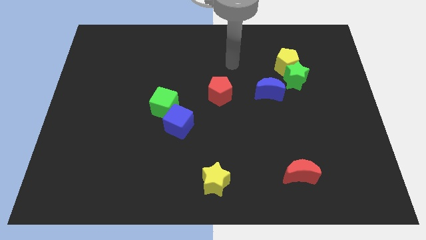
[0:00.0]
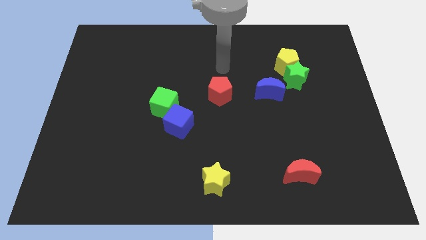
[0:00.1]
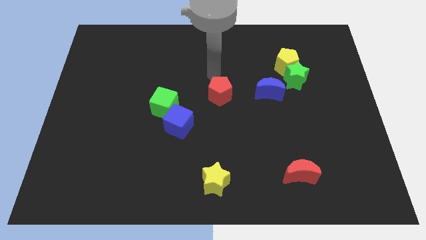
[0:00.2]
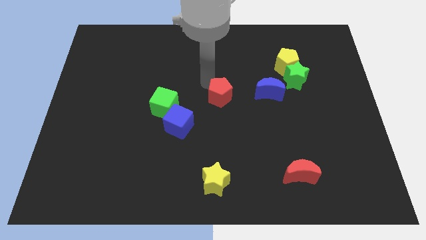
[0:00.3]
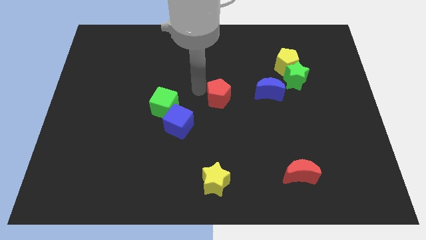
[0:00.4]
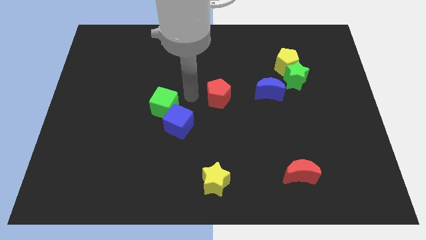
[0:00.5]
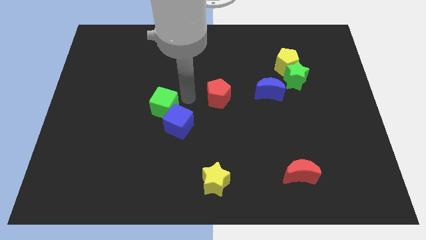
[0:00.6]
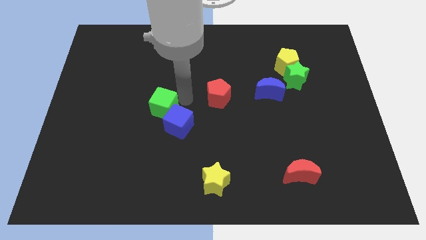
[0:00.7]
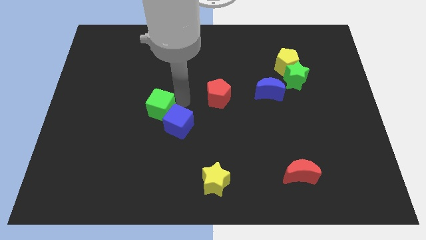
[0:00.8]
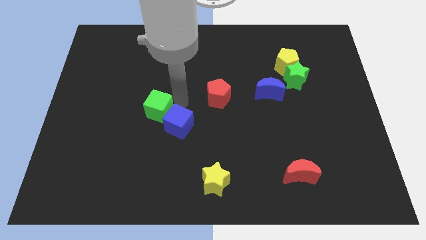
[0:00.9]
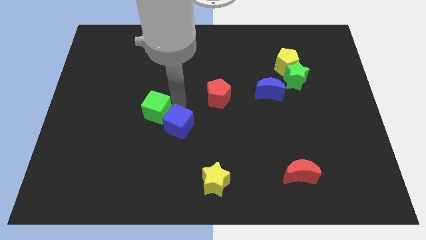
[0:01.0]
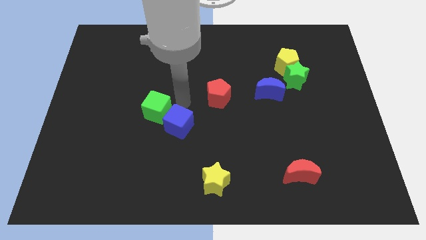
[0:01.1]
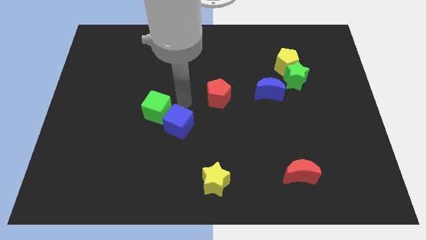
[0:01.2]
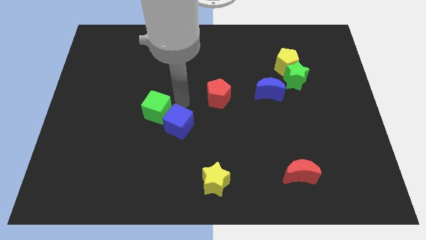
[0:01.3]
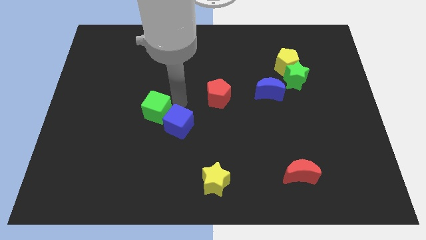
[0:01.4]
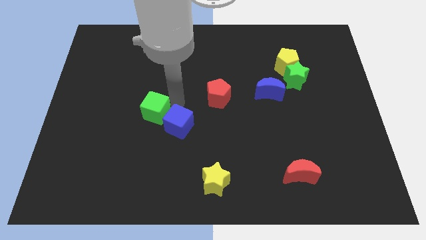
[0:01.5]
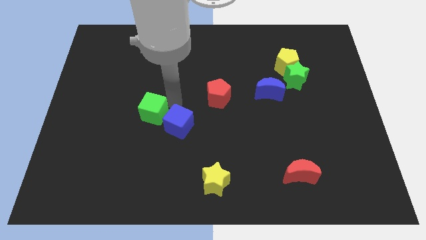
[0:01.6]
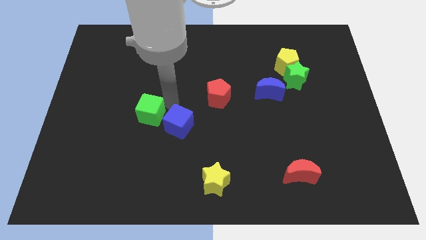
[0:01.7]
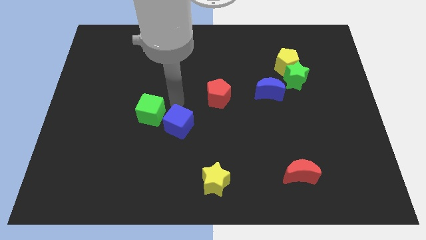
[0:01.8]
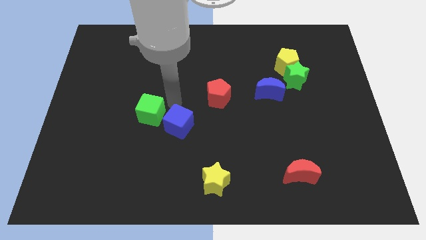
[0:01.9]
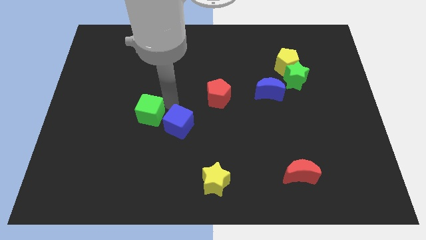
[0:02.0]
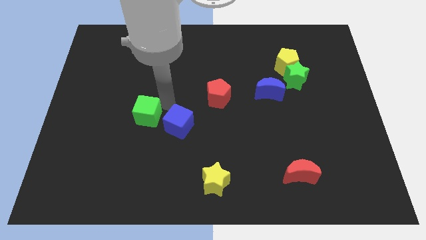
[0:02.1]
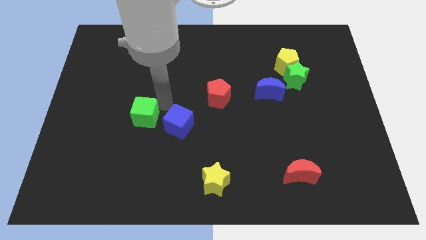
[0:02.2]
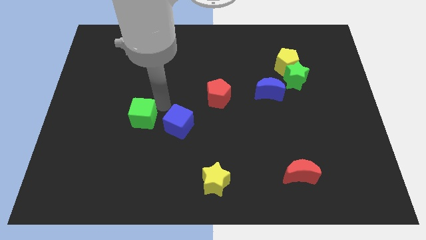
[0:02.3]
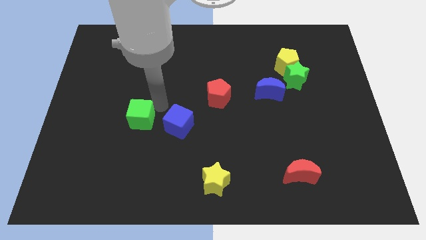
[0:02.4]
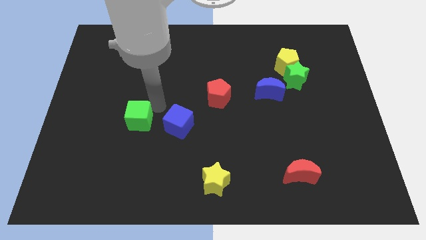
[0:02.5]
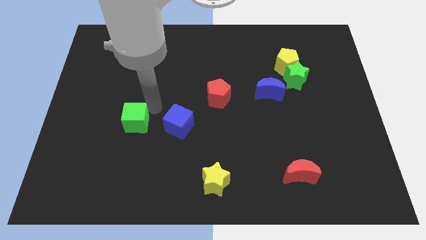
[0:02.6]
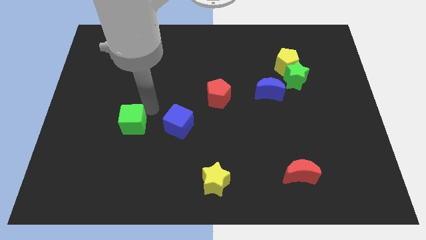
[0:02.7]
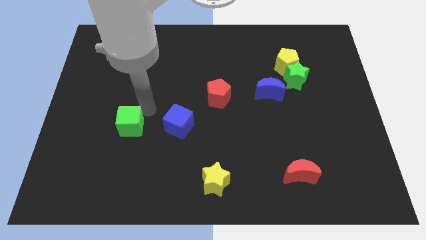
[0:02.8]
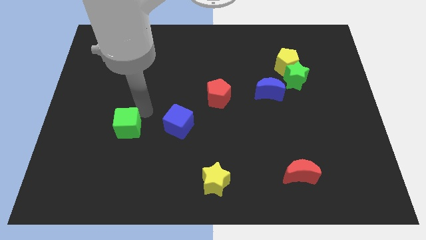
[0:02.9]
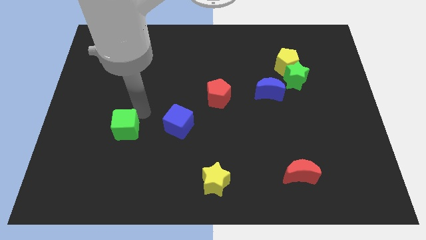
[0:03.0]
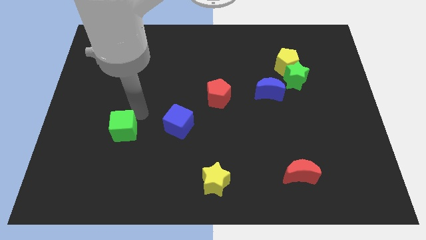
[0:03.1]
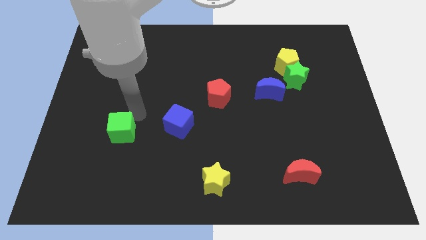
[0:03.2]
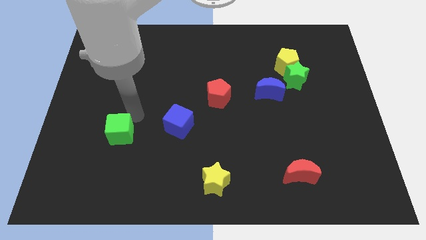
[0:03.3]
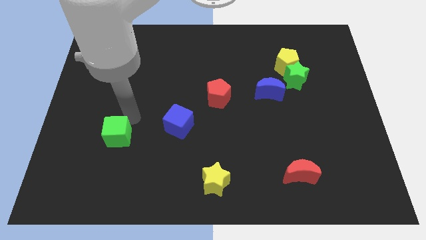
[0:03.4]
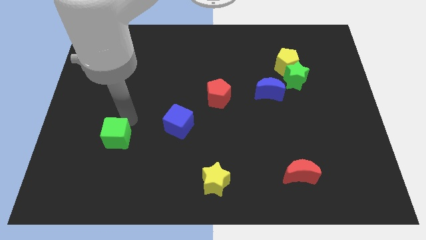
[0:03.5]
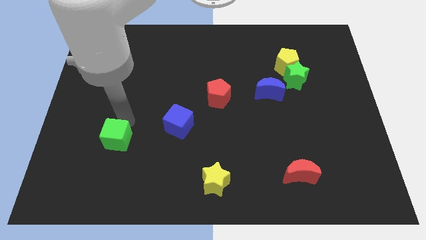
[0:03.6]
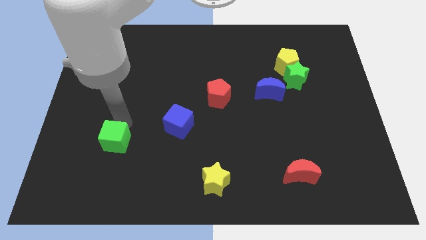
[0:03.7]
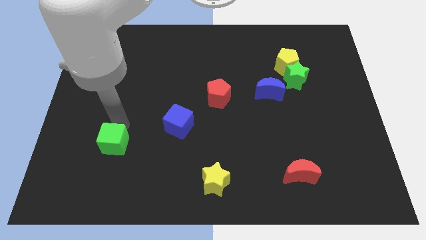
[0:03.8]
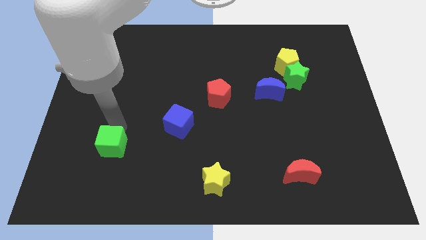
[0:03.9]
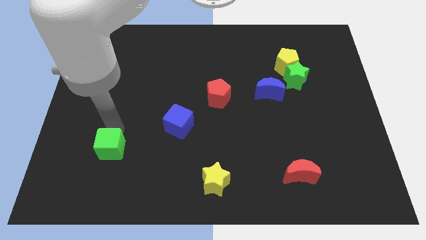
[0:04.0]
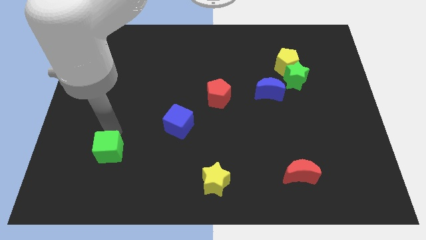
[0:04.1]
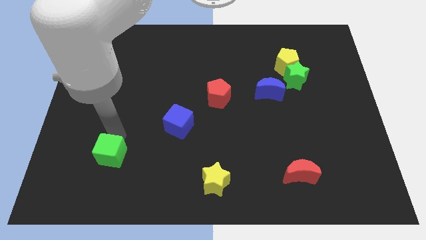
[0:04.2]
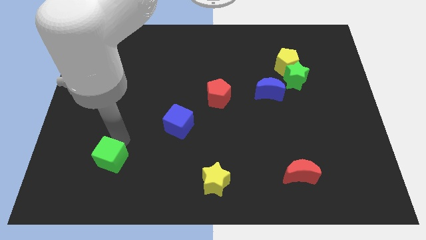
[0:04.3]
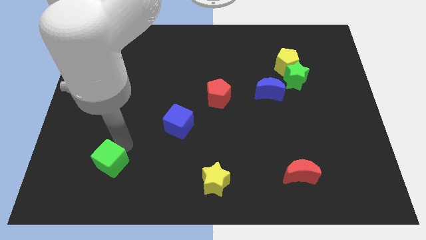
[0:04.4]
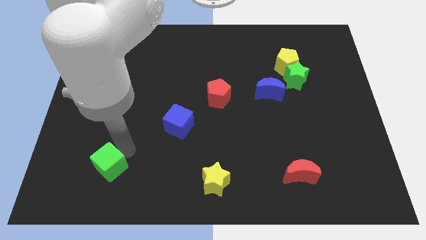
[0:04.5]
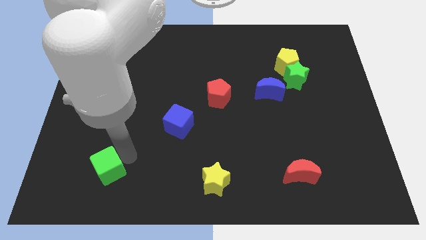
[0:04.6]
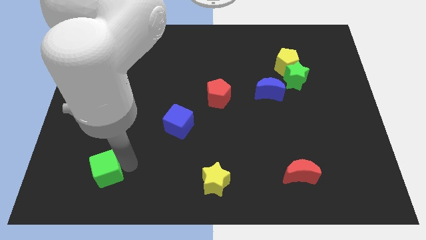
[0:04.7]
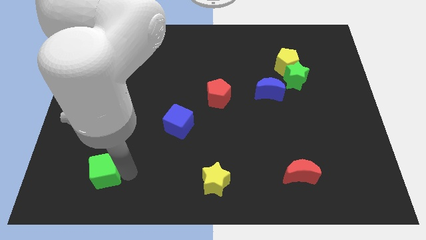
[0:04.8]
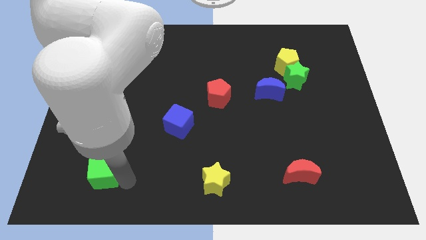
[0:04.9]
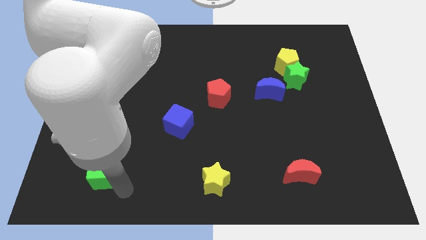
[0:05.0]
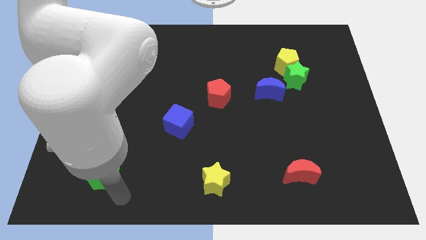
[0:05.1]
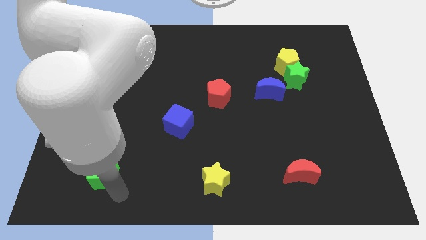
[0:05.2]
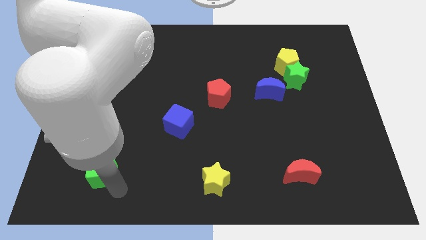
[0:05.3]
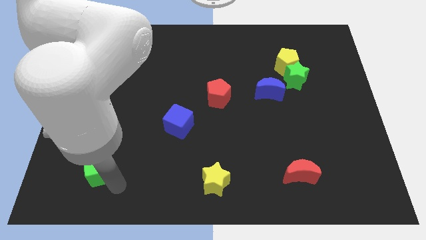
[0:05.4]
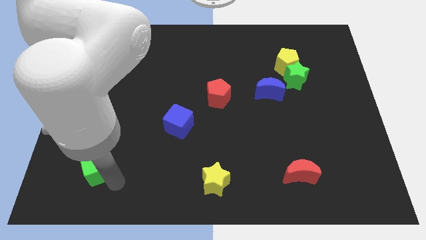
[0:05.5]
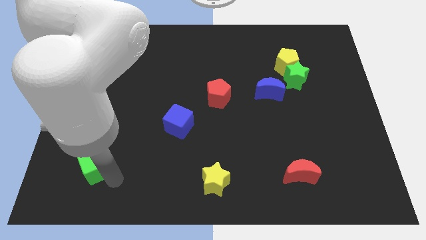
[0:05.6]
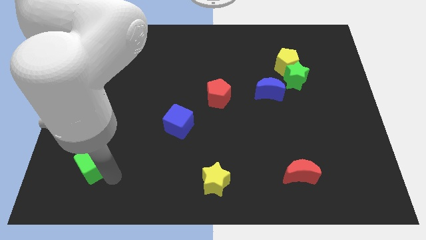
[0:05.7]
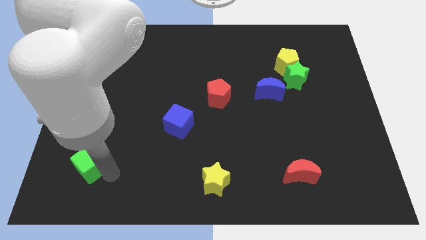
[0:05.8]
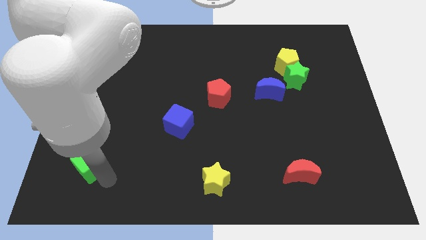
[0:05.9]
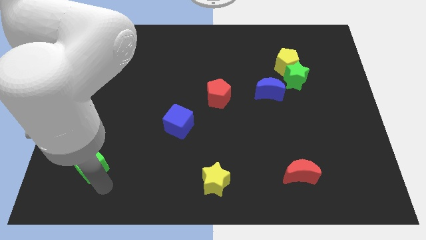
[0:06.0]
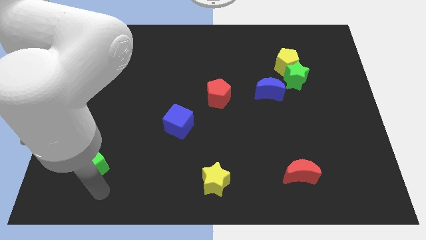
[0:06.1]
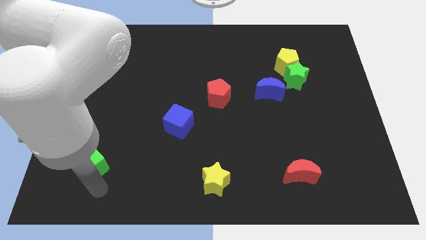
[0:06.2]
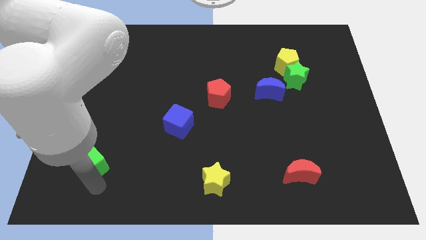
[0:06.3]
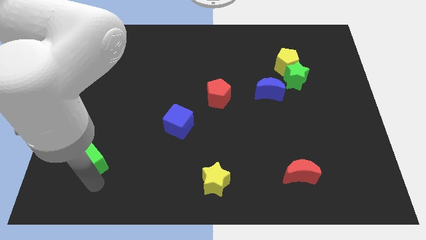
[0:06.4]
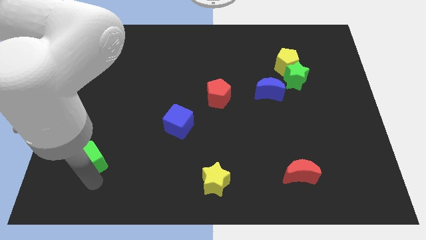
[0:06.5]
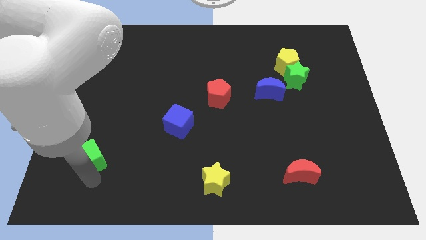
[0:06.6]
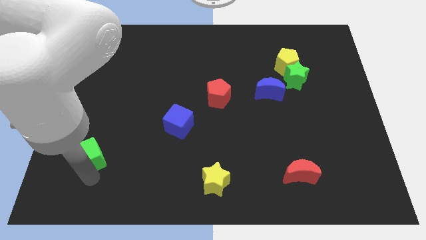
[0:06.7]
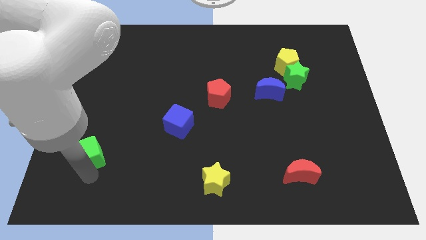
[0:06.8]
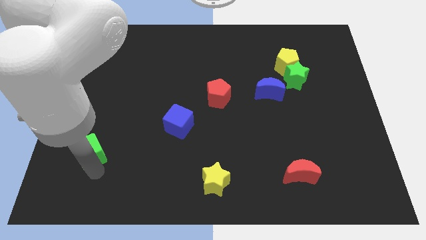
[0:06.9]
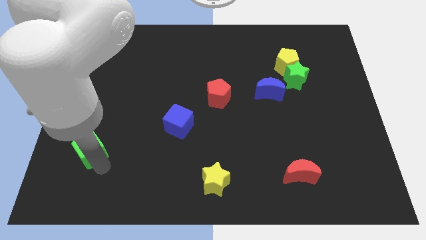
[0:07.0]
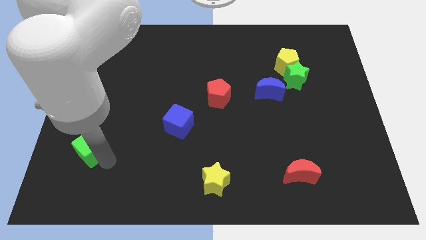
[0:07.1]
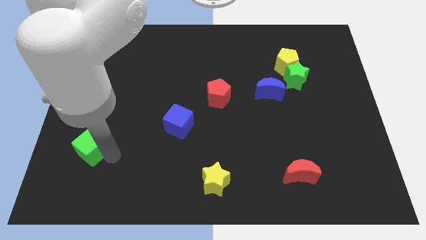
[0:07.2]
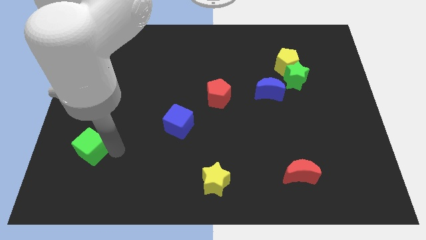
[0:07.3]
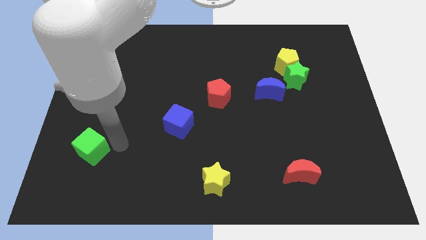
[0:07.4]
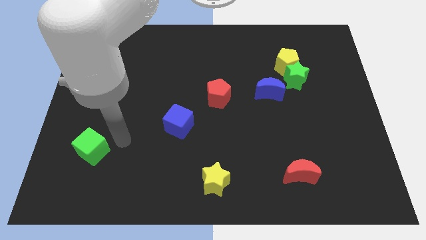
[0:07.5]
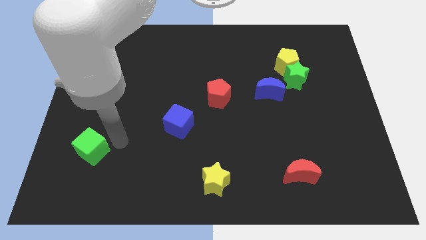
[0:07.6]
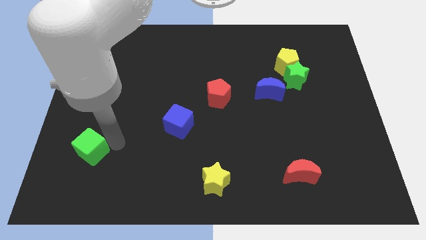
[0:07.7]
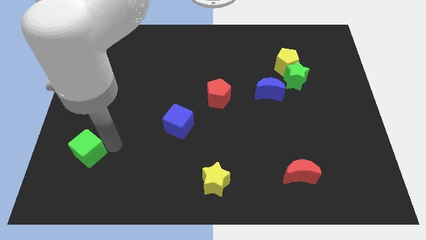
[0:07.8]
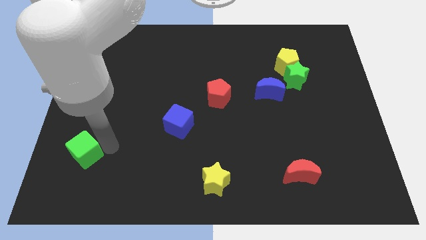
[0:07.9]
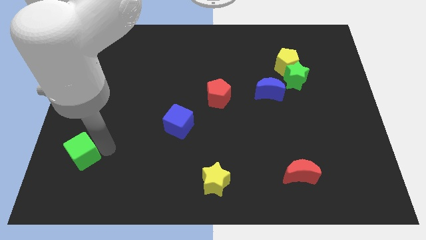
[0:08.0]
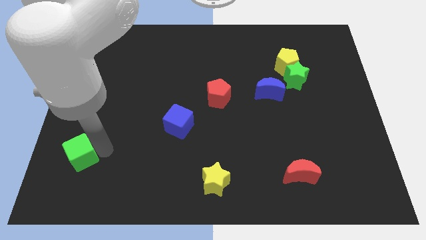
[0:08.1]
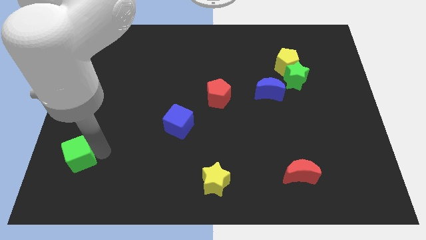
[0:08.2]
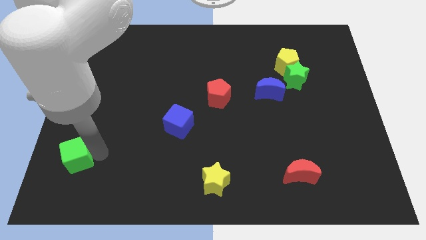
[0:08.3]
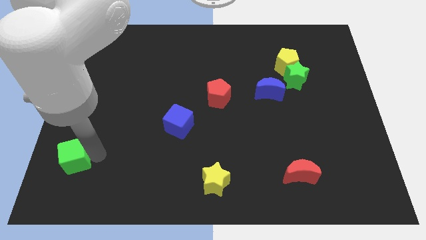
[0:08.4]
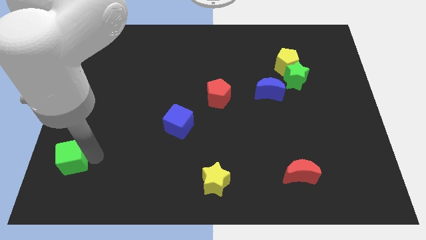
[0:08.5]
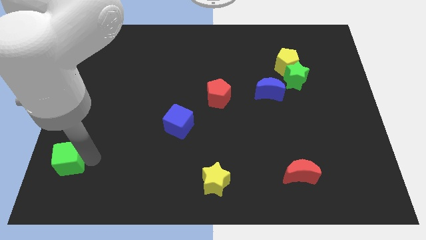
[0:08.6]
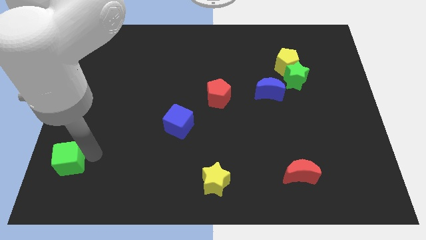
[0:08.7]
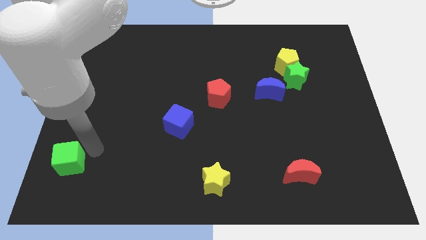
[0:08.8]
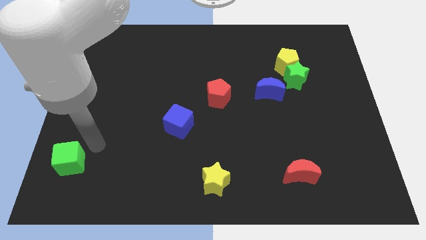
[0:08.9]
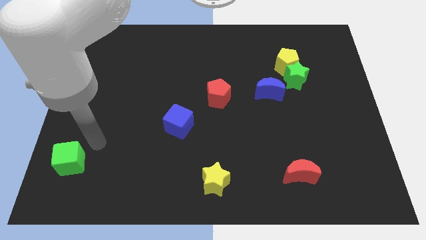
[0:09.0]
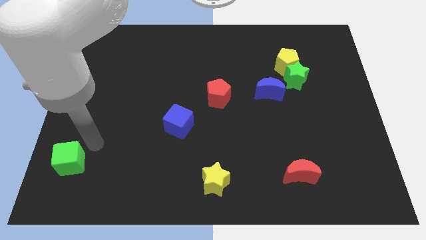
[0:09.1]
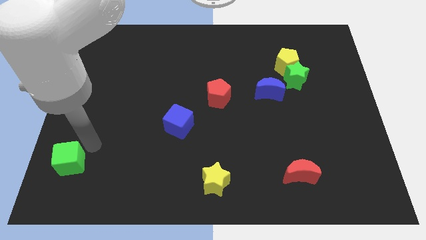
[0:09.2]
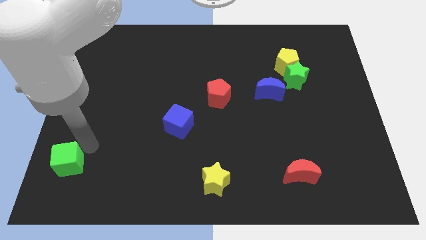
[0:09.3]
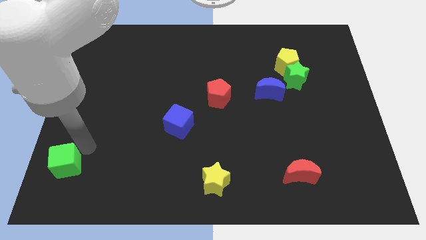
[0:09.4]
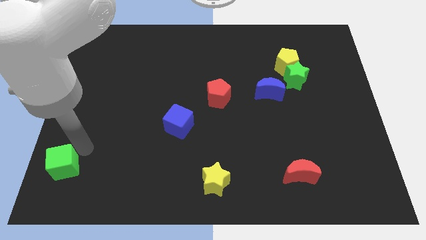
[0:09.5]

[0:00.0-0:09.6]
put the green cube to the bottom left of the board
